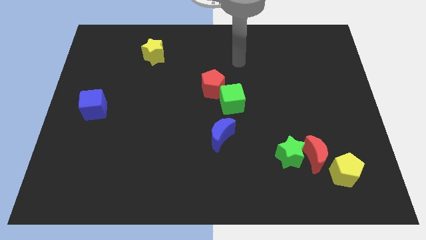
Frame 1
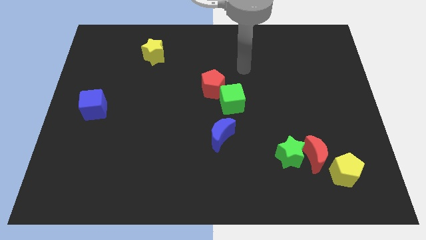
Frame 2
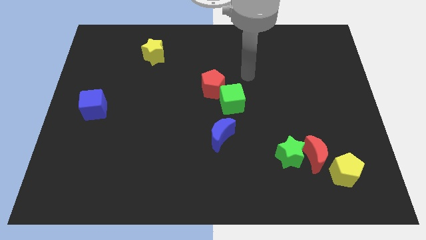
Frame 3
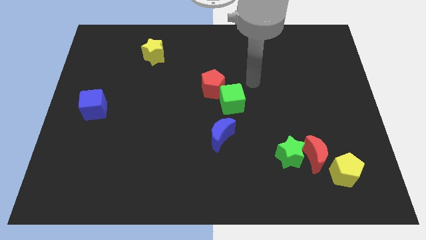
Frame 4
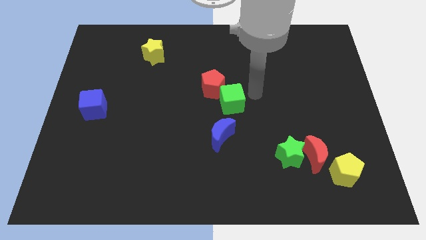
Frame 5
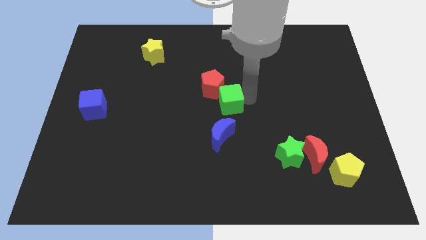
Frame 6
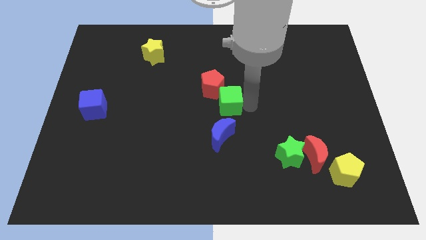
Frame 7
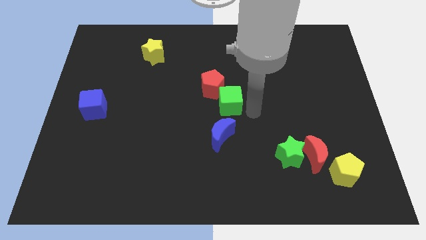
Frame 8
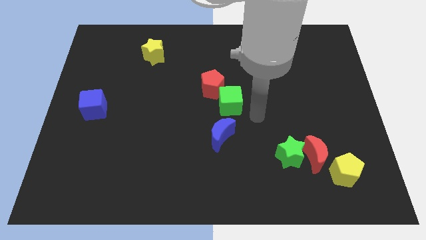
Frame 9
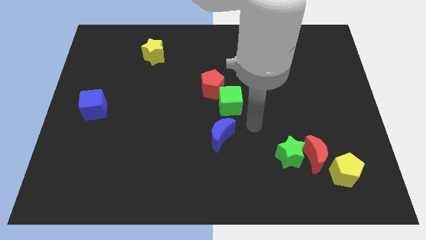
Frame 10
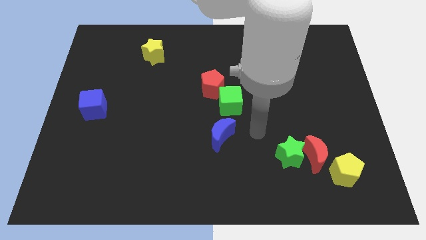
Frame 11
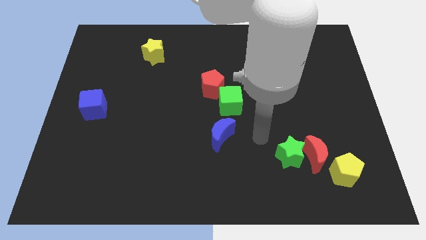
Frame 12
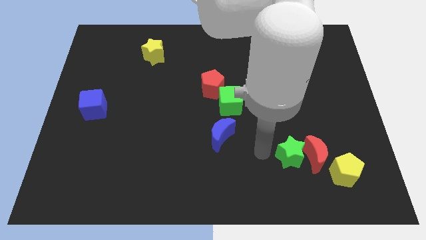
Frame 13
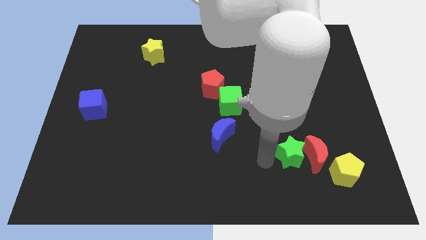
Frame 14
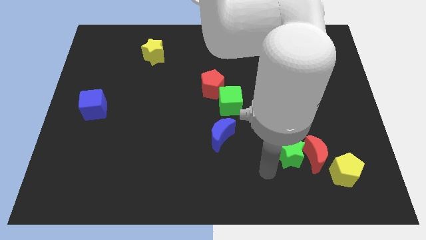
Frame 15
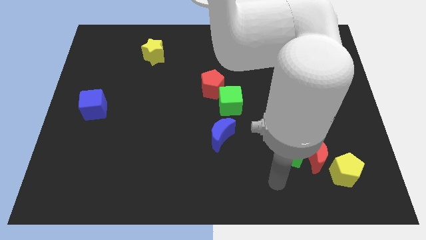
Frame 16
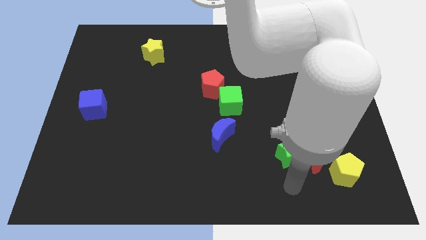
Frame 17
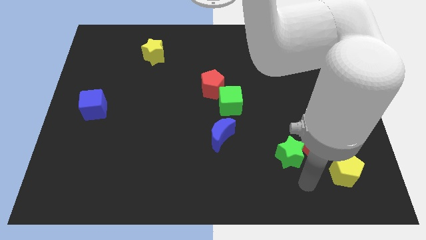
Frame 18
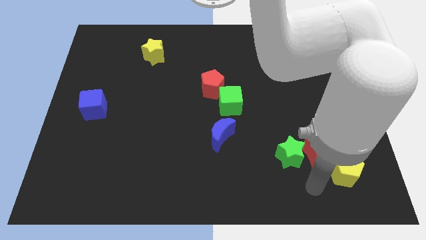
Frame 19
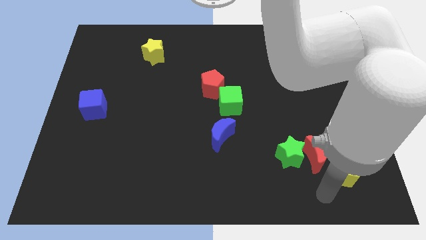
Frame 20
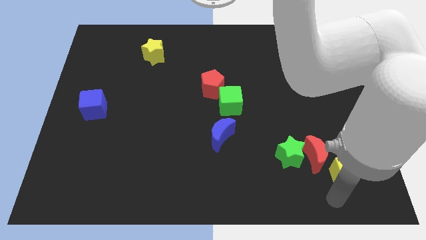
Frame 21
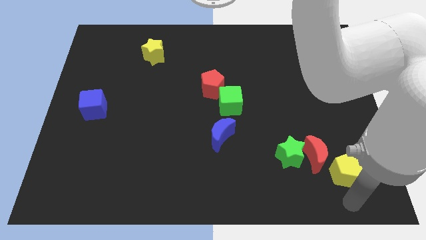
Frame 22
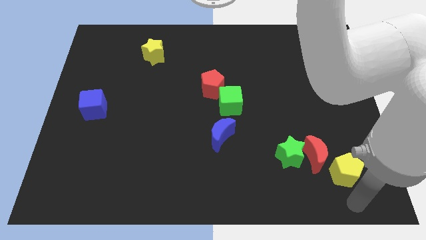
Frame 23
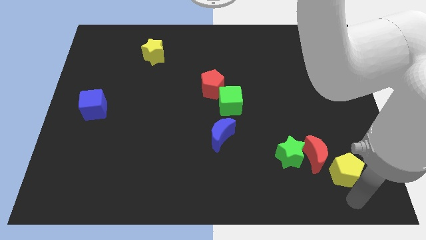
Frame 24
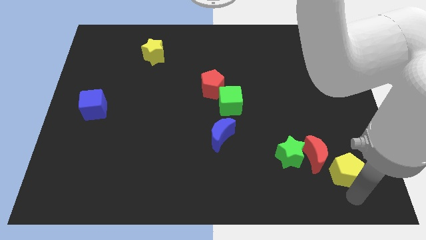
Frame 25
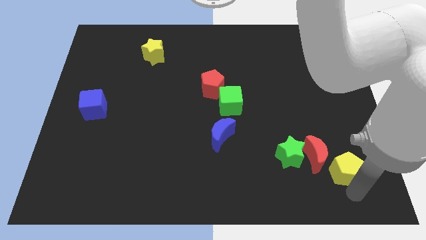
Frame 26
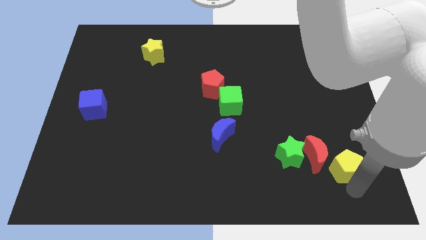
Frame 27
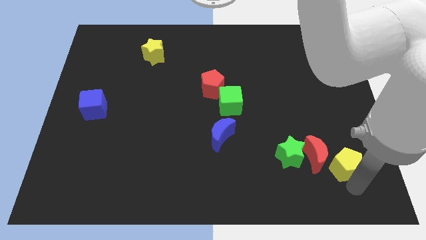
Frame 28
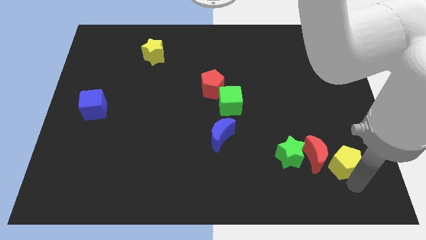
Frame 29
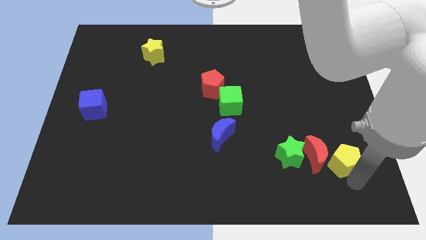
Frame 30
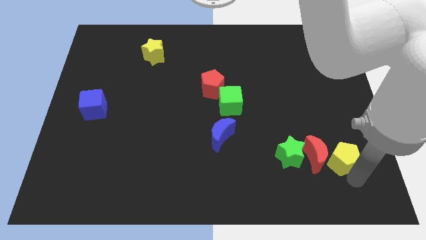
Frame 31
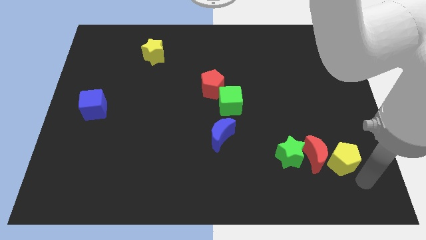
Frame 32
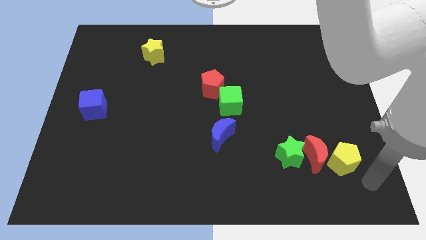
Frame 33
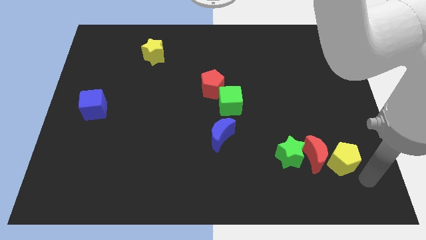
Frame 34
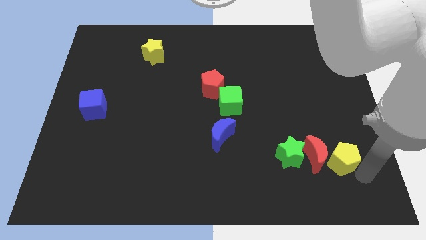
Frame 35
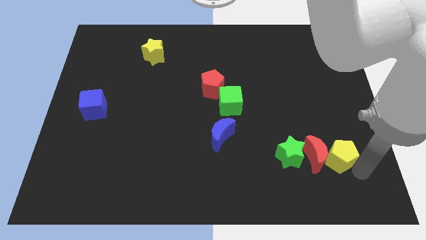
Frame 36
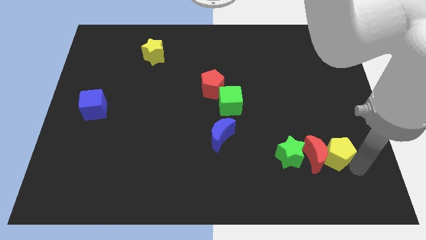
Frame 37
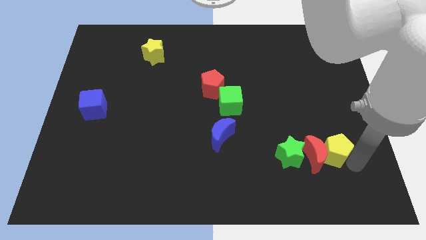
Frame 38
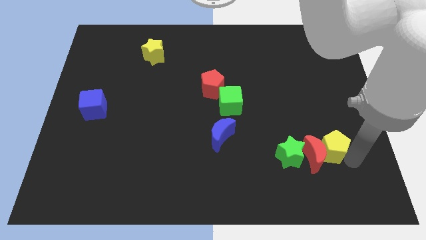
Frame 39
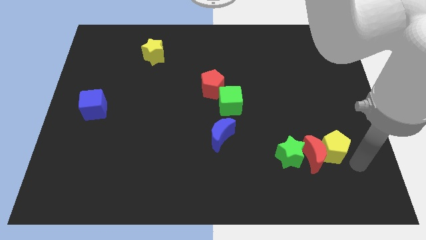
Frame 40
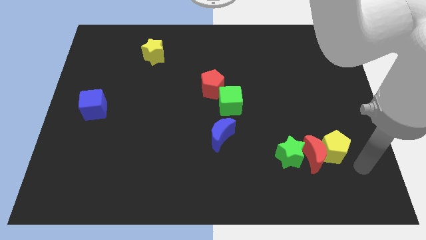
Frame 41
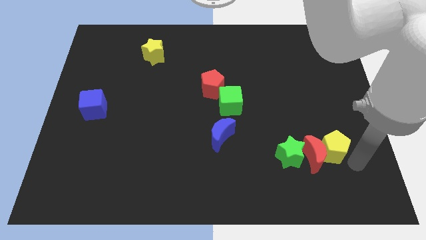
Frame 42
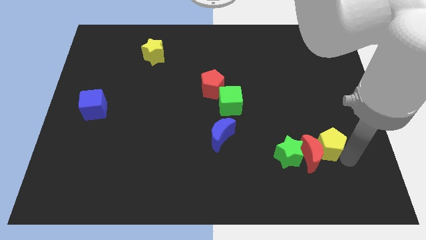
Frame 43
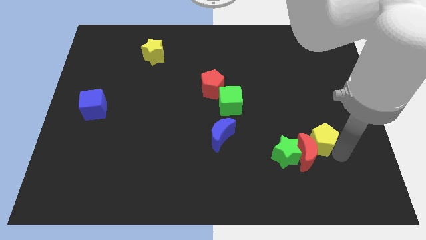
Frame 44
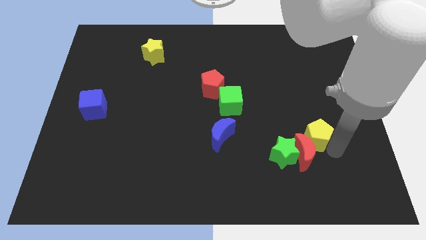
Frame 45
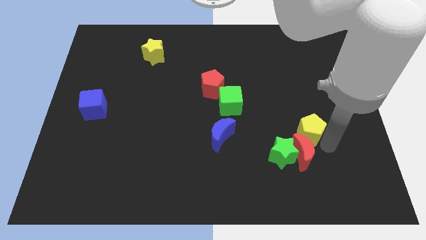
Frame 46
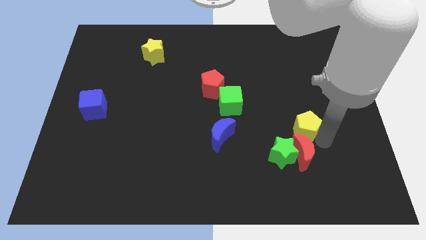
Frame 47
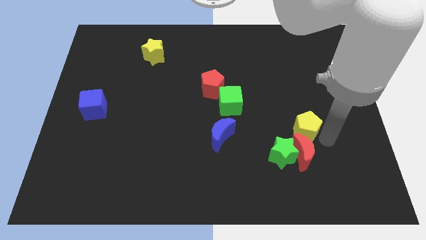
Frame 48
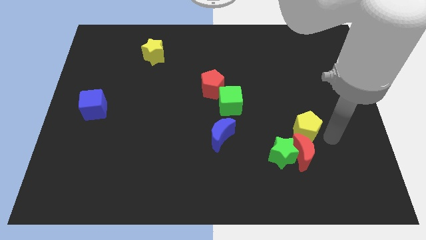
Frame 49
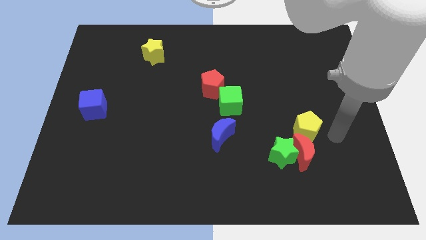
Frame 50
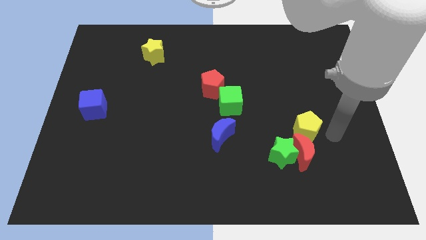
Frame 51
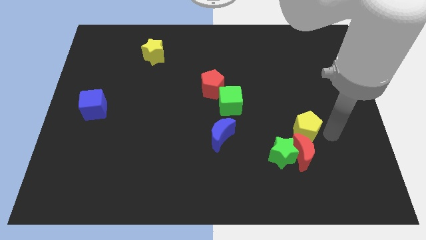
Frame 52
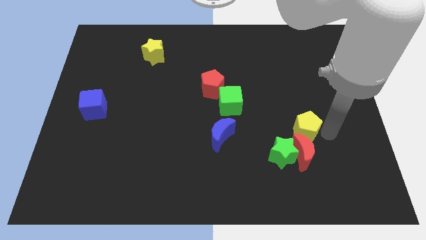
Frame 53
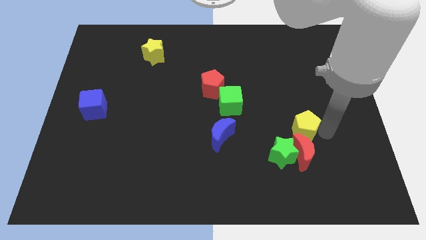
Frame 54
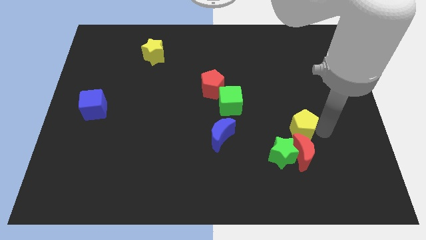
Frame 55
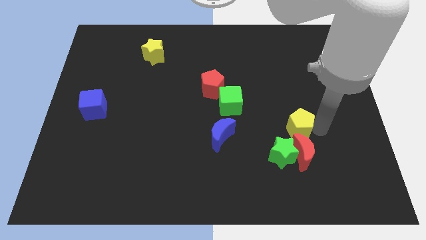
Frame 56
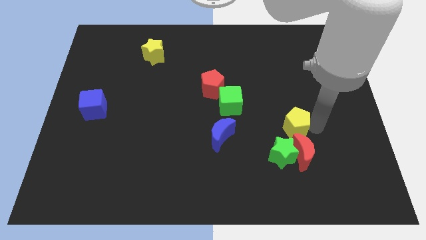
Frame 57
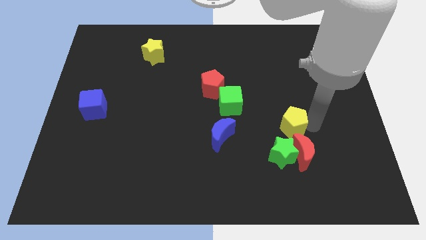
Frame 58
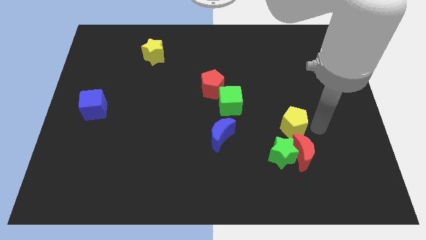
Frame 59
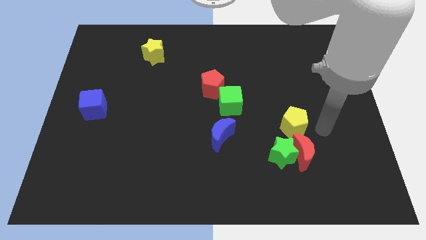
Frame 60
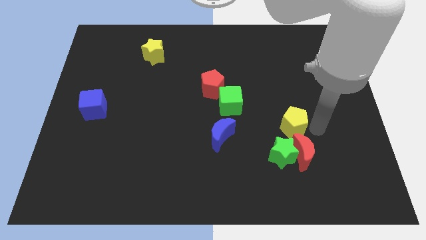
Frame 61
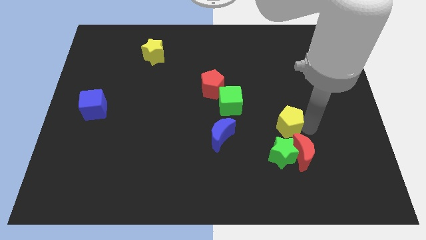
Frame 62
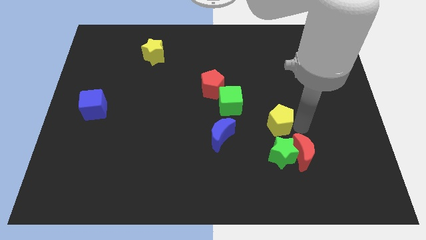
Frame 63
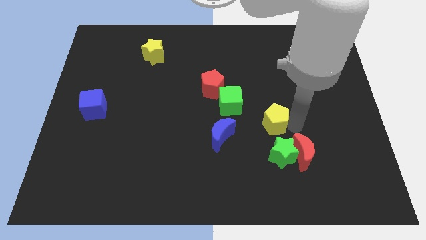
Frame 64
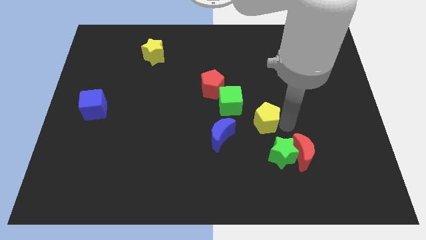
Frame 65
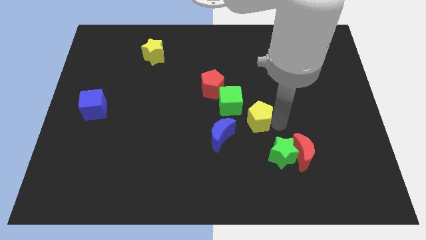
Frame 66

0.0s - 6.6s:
push the yellow pentagon to the top right of the blue moon

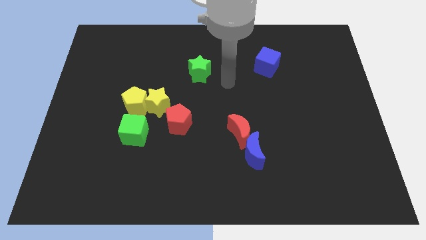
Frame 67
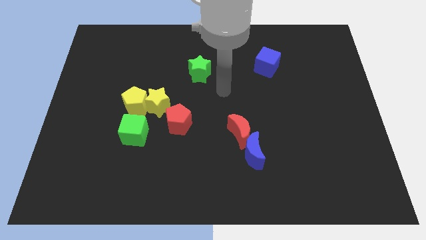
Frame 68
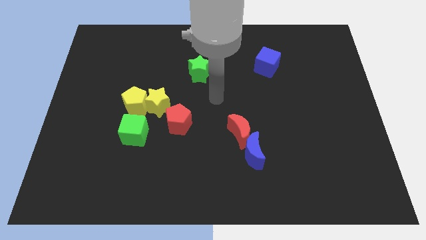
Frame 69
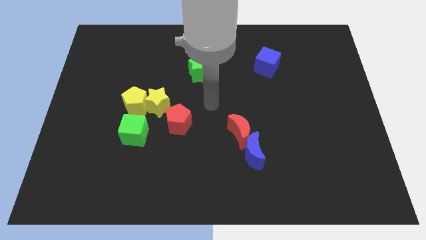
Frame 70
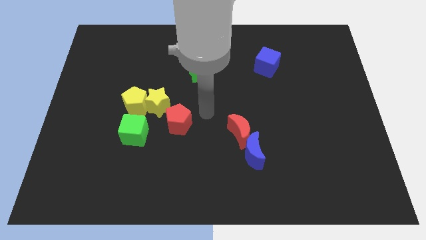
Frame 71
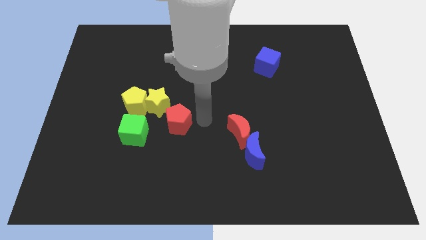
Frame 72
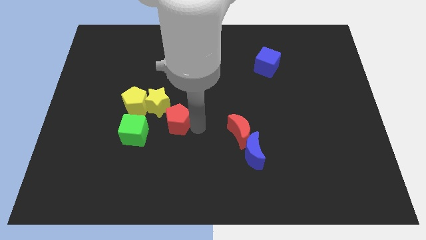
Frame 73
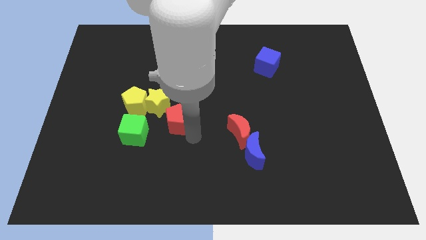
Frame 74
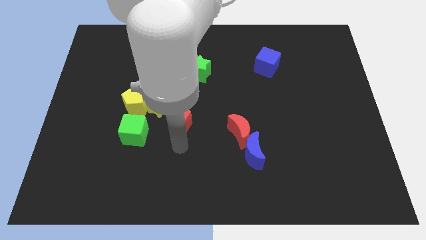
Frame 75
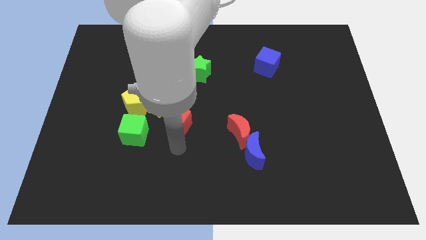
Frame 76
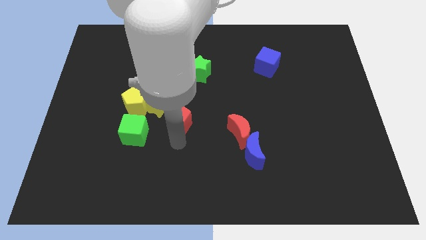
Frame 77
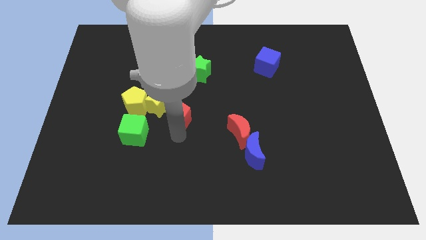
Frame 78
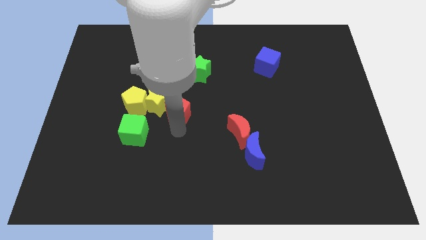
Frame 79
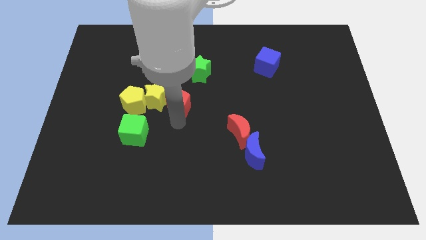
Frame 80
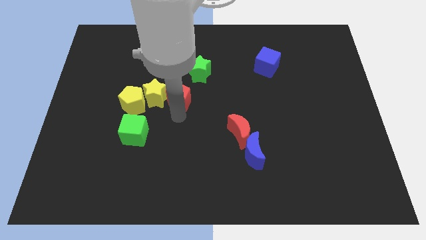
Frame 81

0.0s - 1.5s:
push the red pentagon to the top right of the yellow star

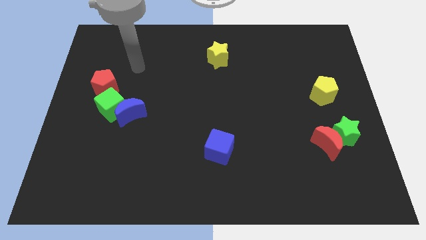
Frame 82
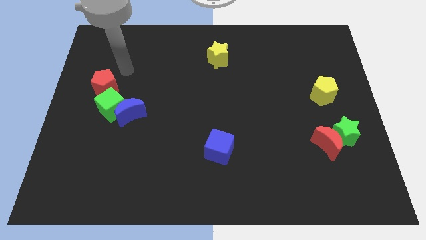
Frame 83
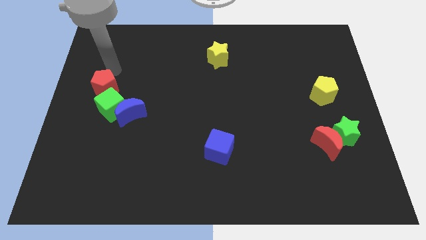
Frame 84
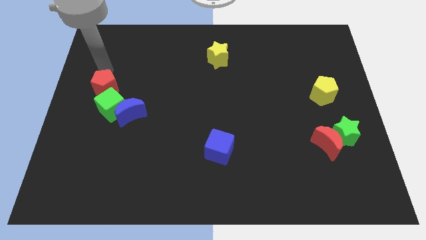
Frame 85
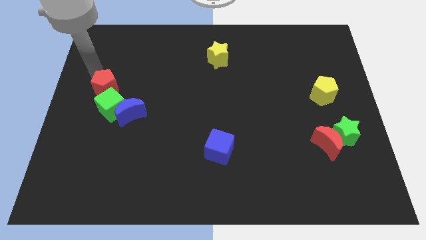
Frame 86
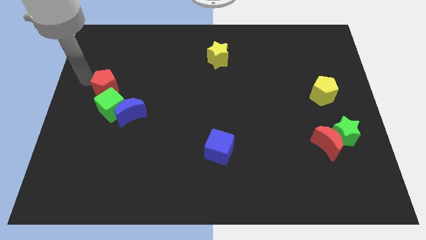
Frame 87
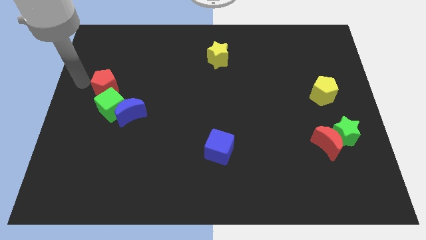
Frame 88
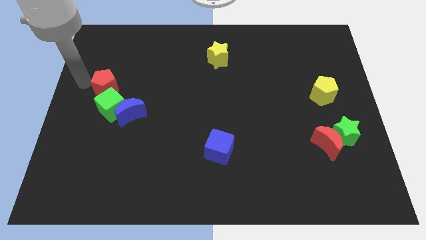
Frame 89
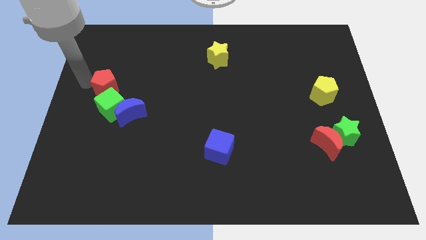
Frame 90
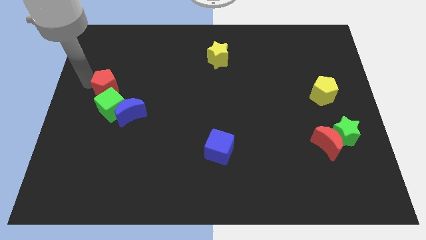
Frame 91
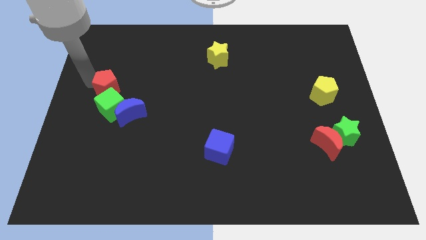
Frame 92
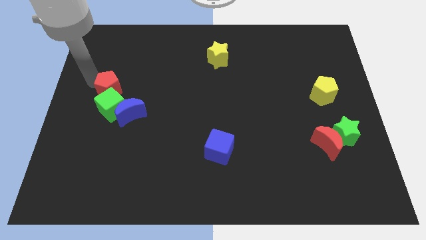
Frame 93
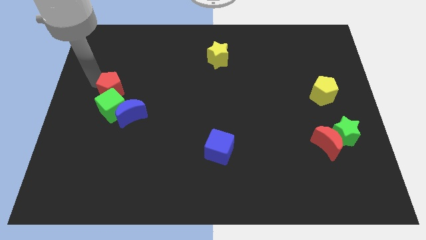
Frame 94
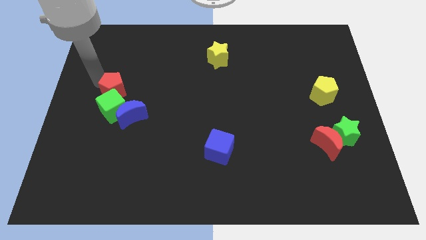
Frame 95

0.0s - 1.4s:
move the red pentagon to the top right of the green cube
